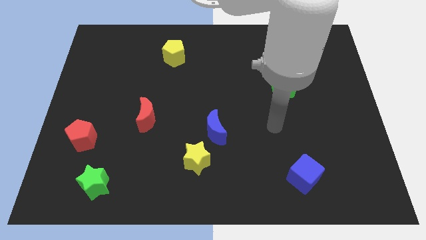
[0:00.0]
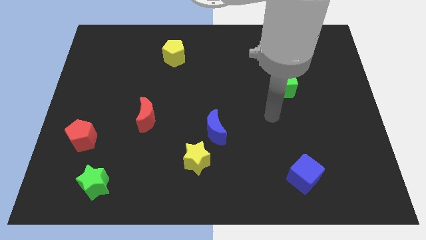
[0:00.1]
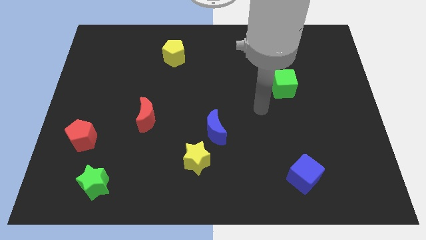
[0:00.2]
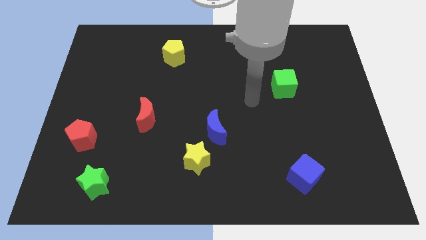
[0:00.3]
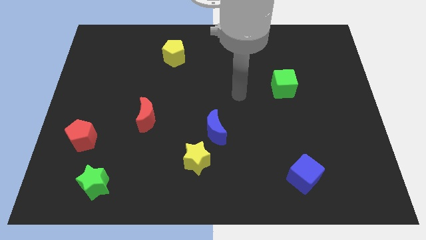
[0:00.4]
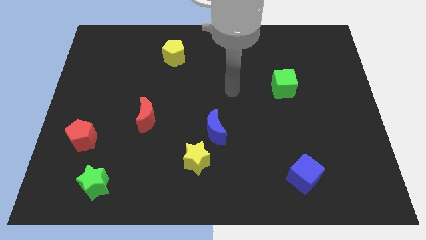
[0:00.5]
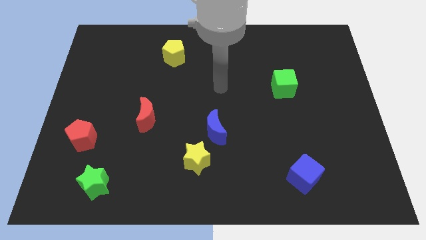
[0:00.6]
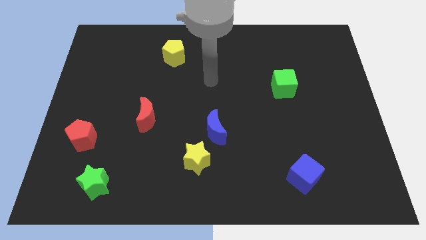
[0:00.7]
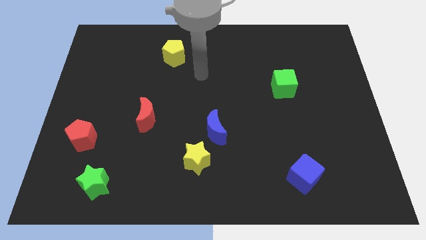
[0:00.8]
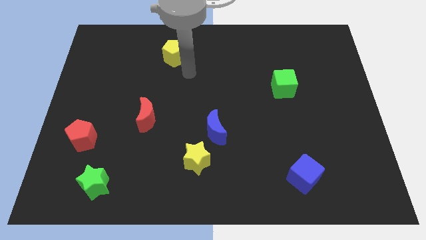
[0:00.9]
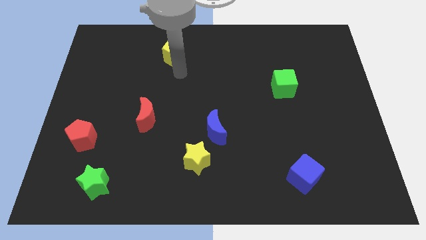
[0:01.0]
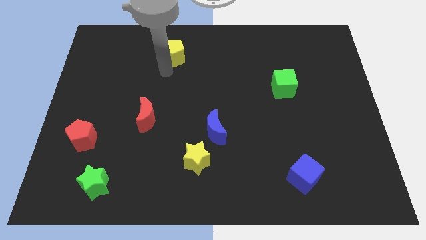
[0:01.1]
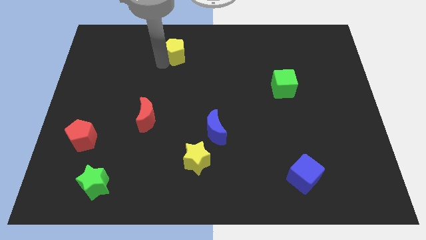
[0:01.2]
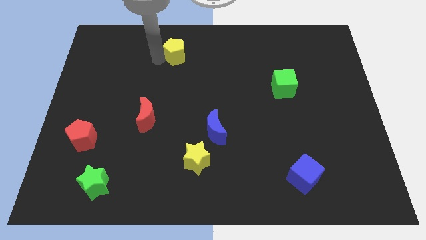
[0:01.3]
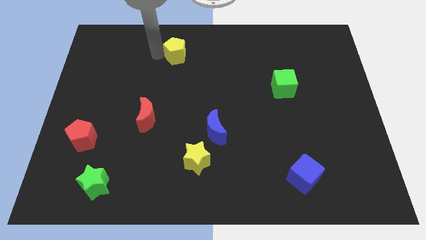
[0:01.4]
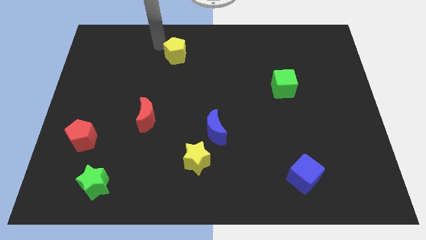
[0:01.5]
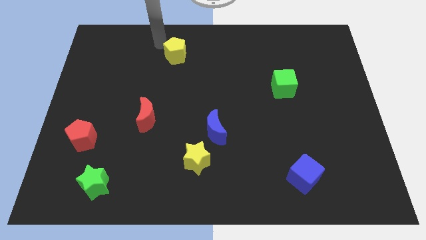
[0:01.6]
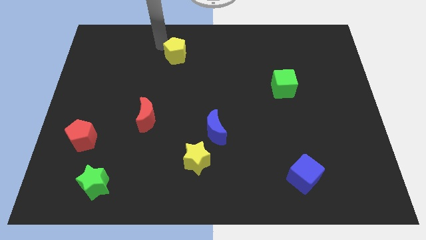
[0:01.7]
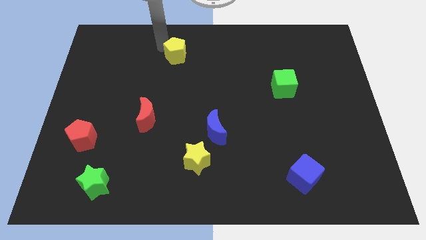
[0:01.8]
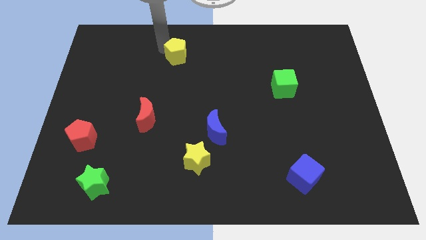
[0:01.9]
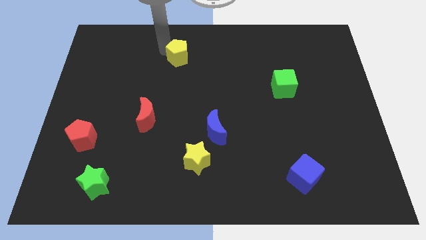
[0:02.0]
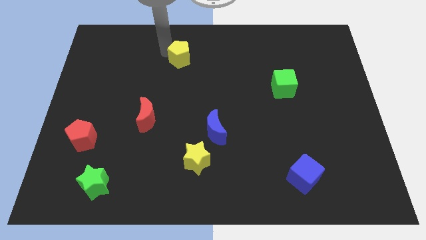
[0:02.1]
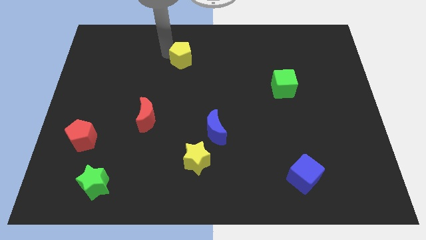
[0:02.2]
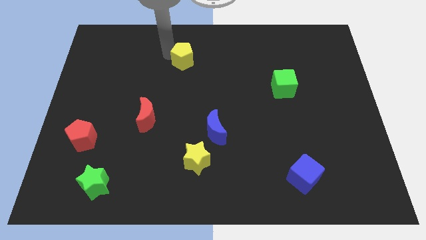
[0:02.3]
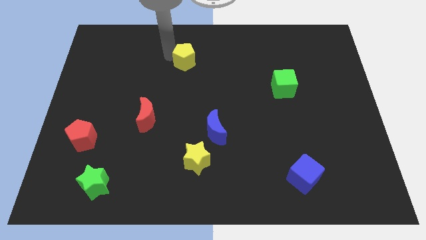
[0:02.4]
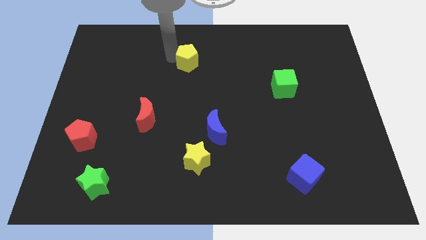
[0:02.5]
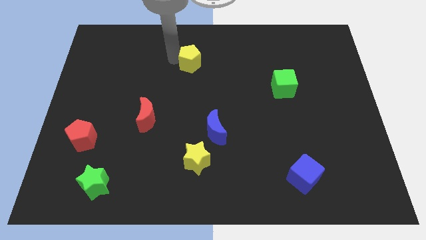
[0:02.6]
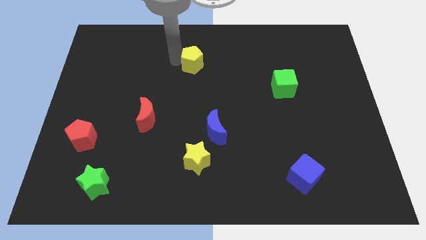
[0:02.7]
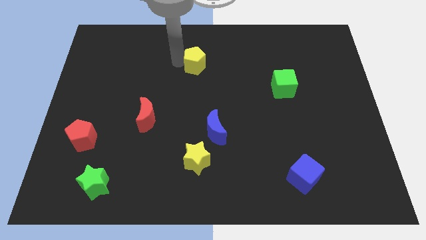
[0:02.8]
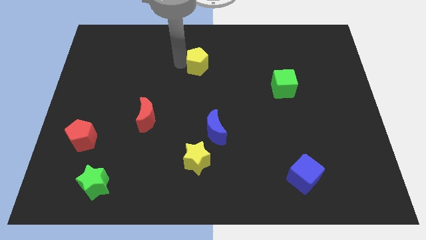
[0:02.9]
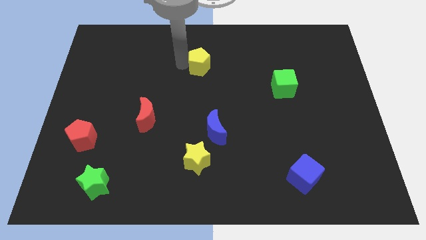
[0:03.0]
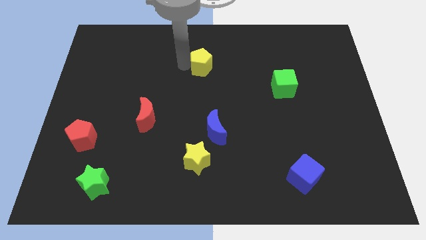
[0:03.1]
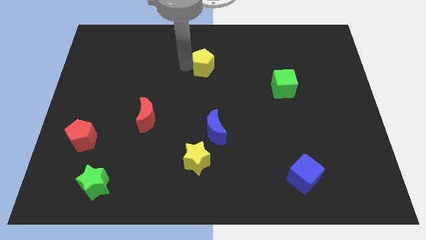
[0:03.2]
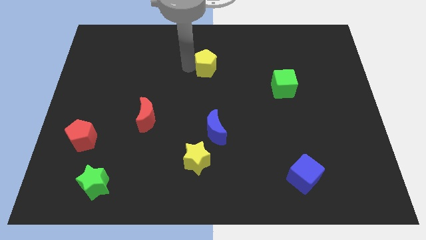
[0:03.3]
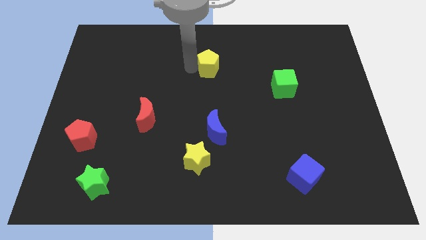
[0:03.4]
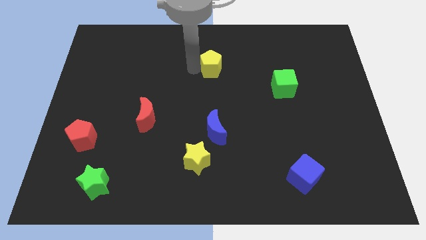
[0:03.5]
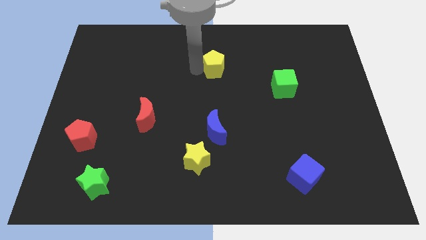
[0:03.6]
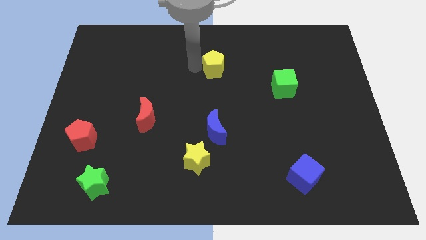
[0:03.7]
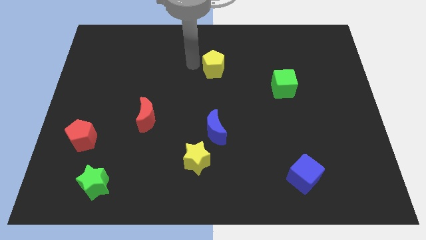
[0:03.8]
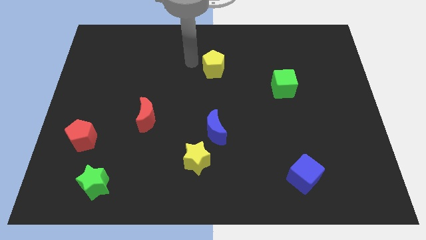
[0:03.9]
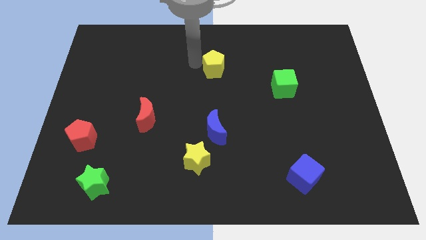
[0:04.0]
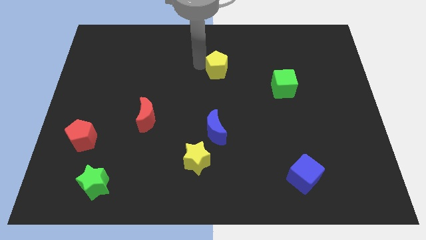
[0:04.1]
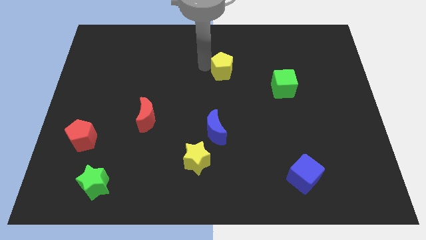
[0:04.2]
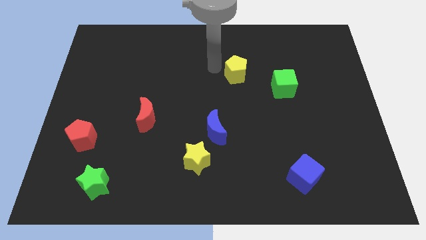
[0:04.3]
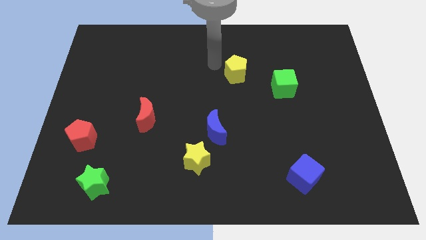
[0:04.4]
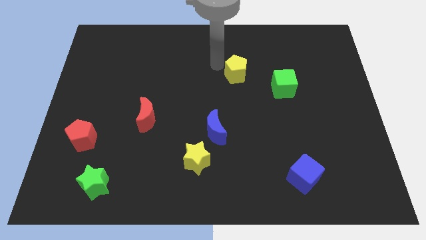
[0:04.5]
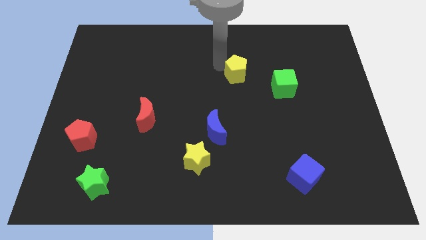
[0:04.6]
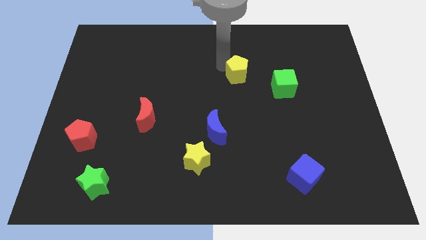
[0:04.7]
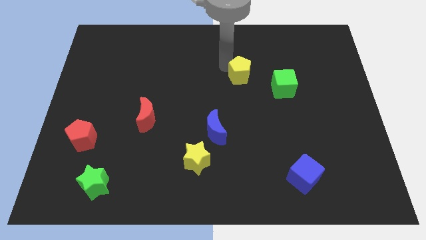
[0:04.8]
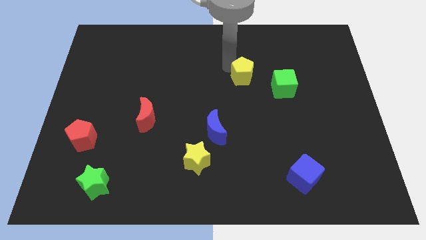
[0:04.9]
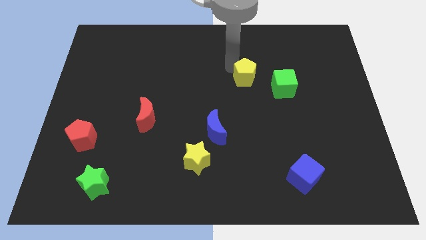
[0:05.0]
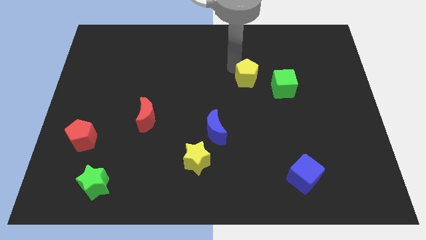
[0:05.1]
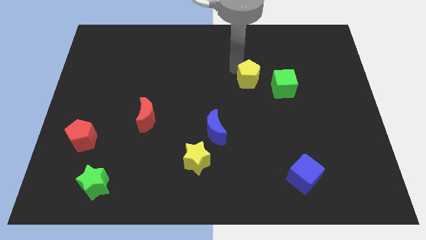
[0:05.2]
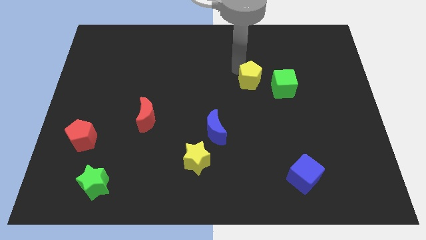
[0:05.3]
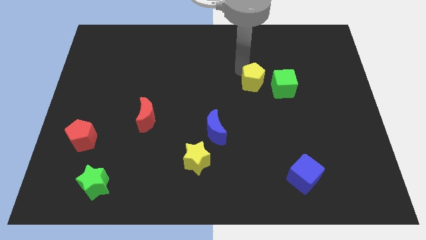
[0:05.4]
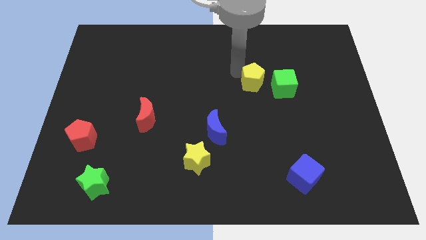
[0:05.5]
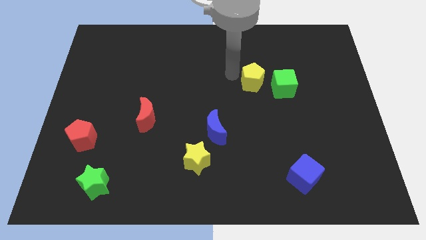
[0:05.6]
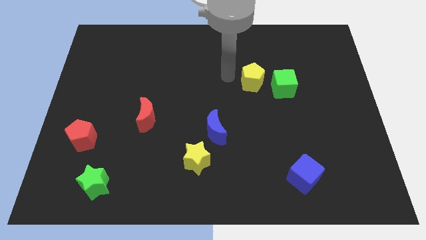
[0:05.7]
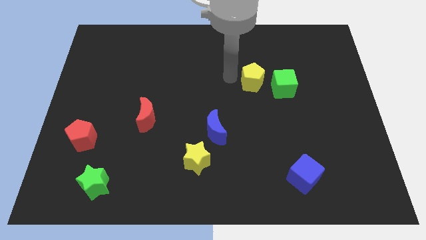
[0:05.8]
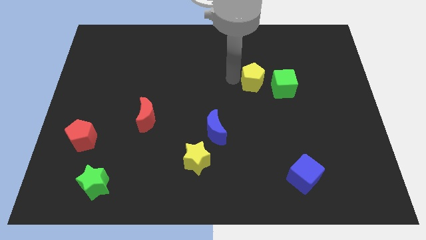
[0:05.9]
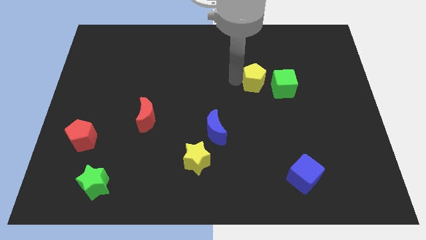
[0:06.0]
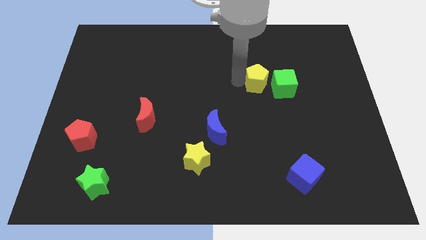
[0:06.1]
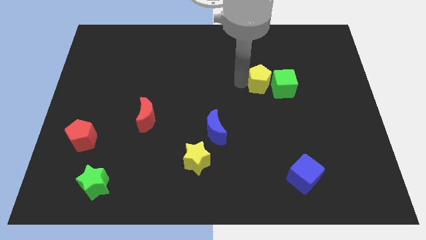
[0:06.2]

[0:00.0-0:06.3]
push the yellow pentagon towards the green cube

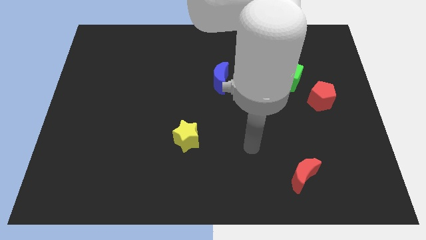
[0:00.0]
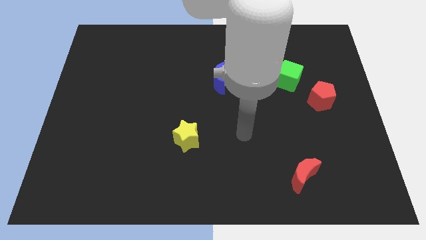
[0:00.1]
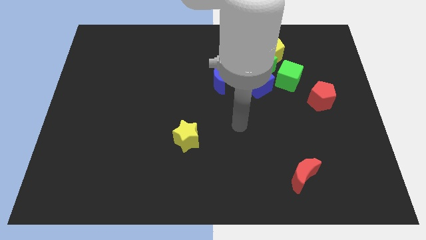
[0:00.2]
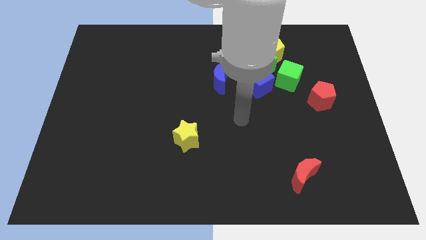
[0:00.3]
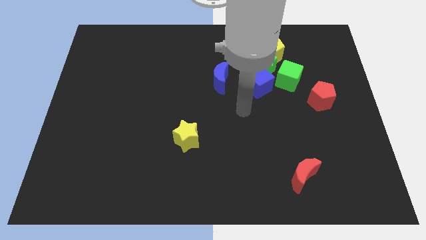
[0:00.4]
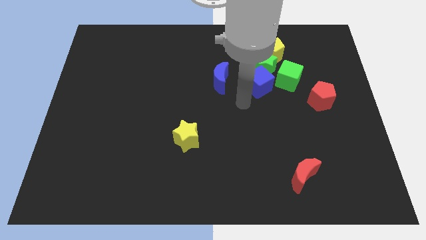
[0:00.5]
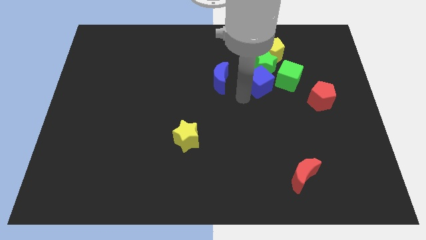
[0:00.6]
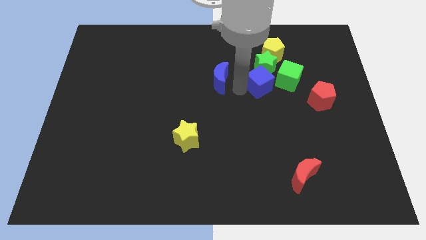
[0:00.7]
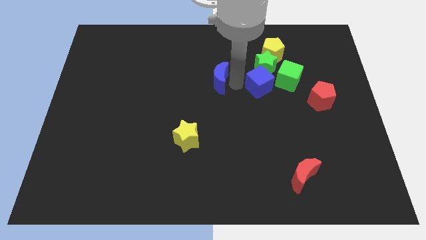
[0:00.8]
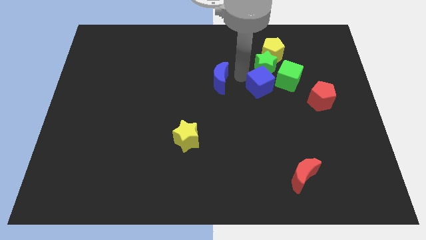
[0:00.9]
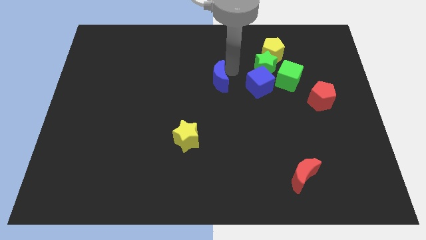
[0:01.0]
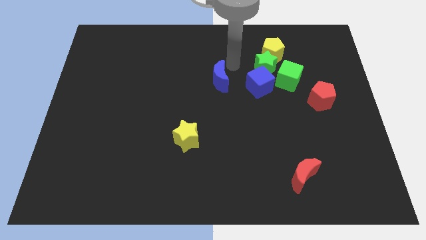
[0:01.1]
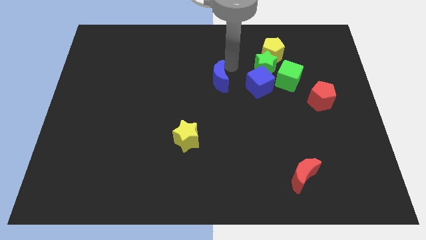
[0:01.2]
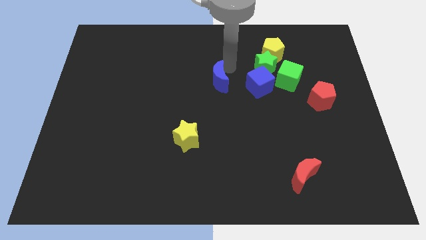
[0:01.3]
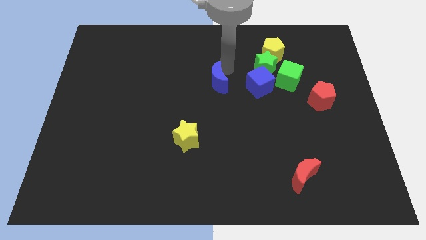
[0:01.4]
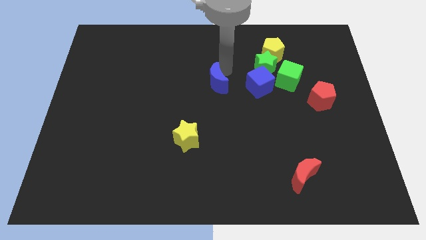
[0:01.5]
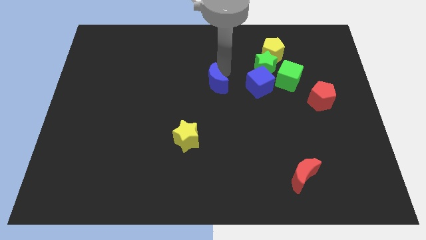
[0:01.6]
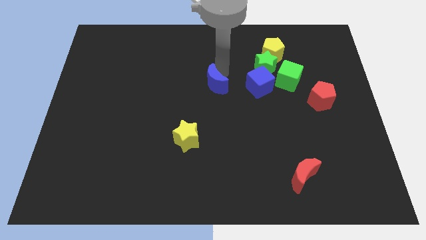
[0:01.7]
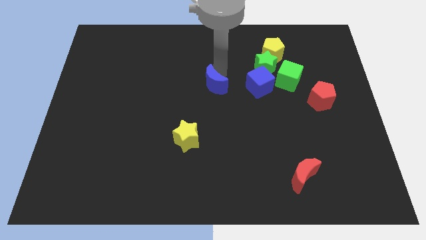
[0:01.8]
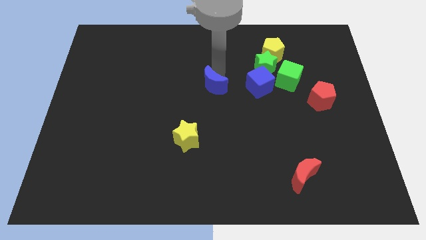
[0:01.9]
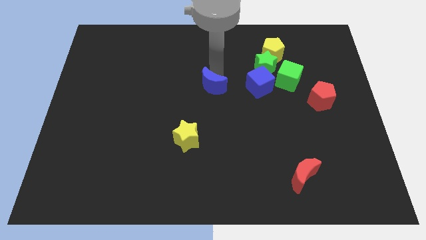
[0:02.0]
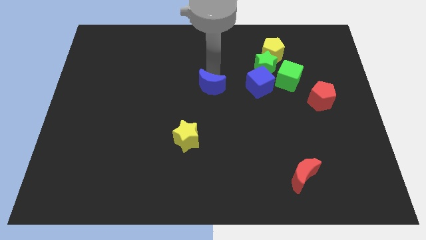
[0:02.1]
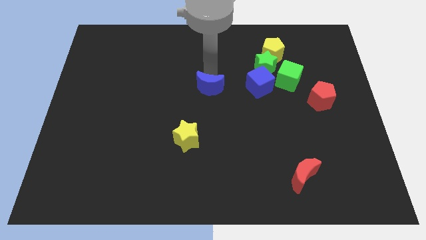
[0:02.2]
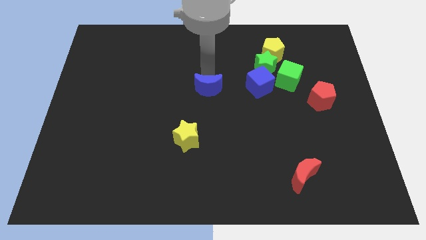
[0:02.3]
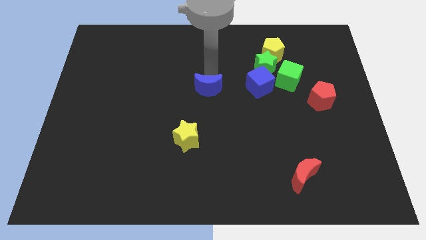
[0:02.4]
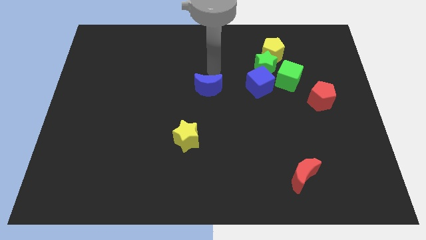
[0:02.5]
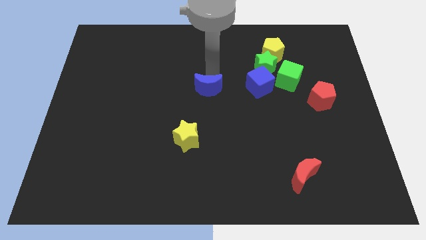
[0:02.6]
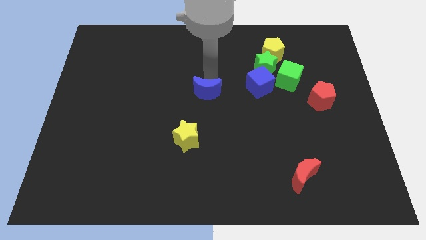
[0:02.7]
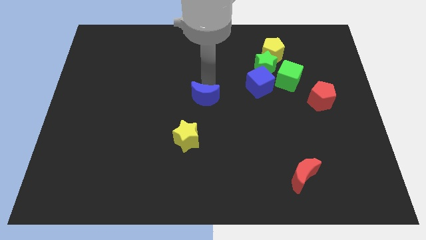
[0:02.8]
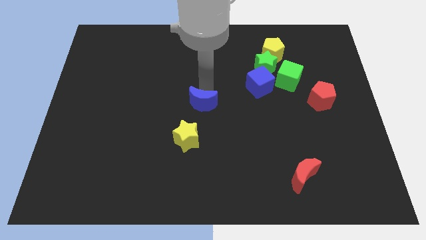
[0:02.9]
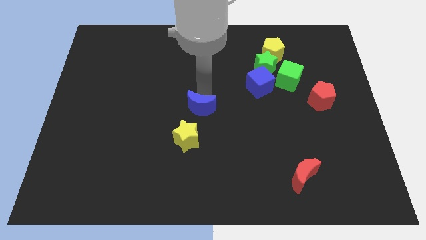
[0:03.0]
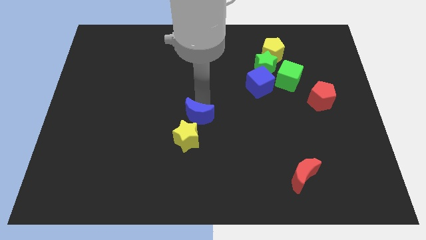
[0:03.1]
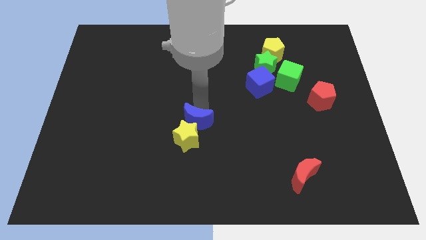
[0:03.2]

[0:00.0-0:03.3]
move the blue moon to the yellow star
